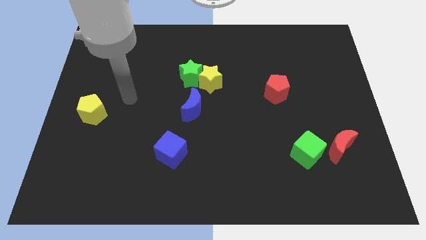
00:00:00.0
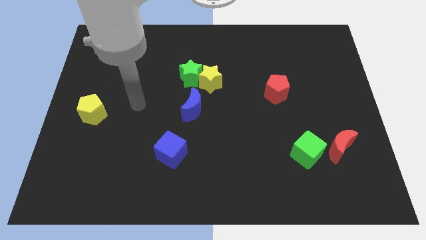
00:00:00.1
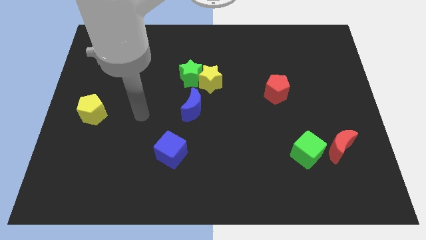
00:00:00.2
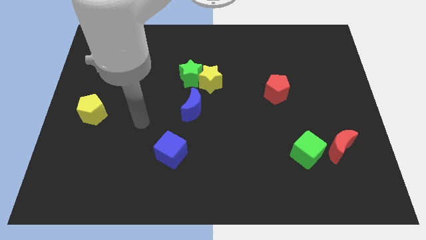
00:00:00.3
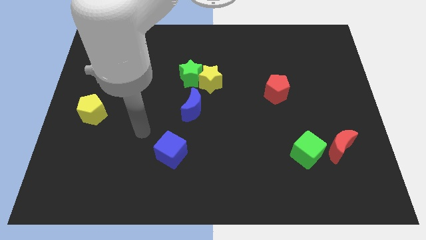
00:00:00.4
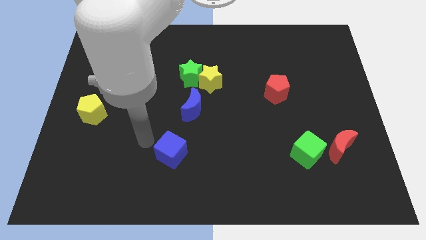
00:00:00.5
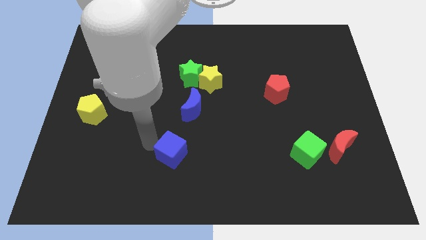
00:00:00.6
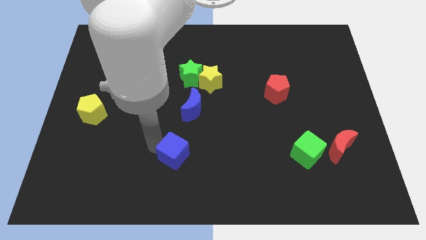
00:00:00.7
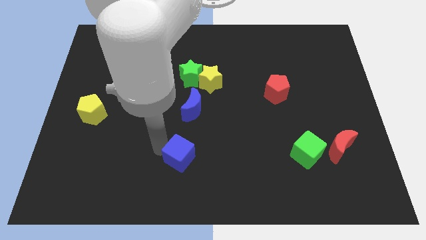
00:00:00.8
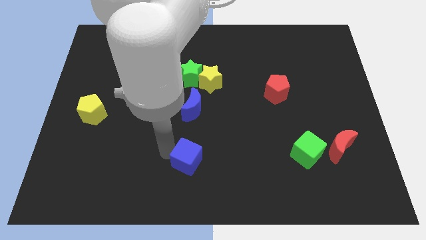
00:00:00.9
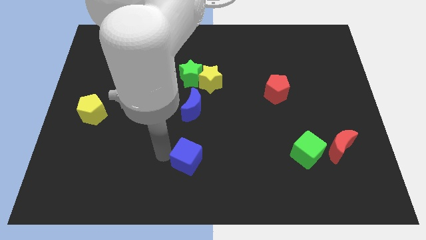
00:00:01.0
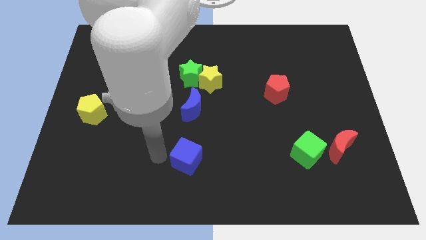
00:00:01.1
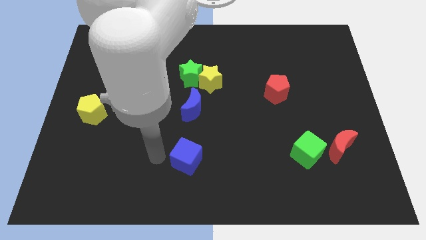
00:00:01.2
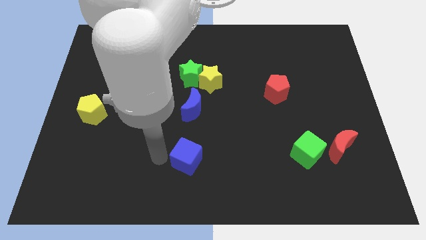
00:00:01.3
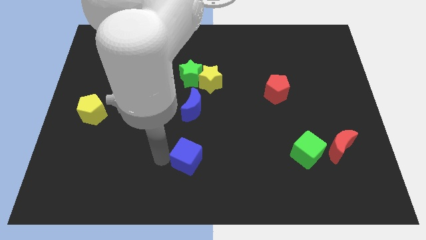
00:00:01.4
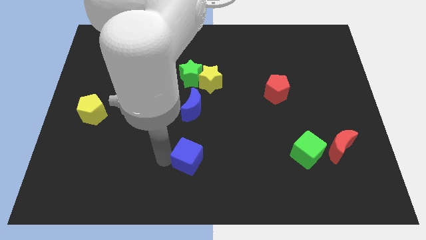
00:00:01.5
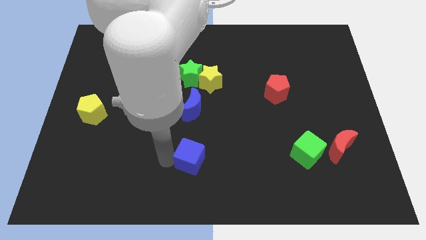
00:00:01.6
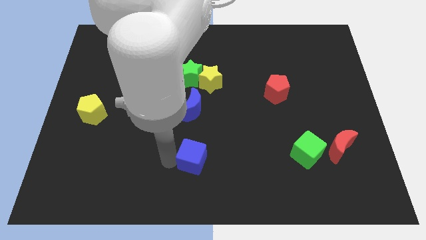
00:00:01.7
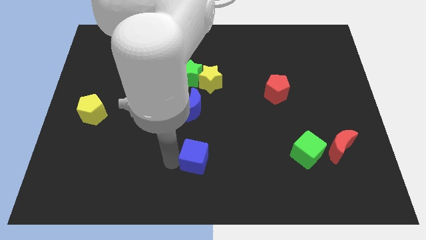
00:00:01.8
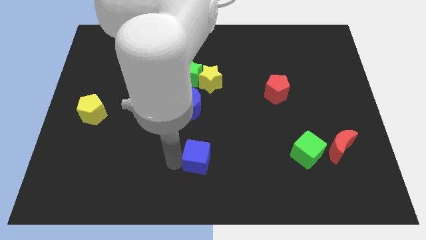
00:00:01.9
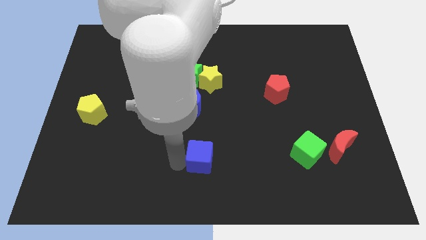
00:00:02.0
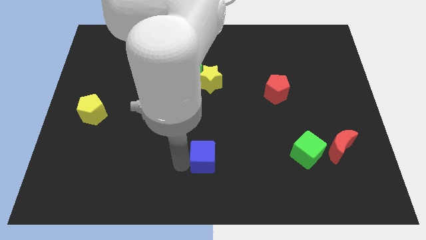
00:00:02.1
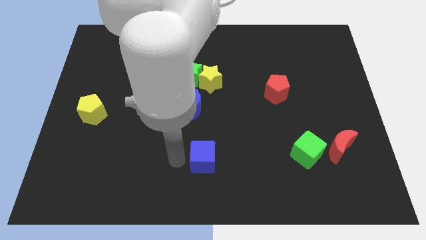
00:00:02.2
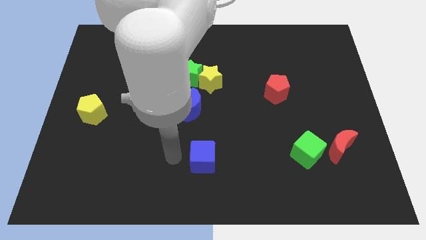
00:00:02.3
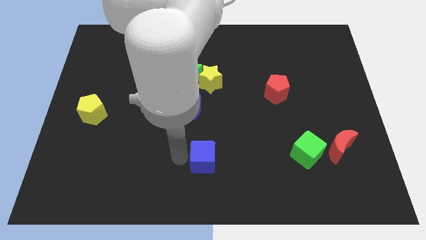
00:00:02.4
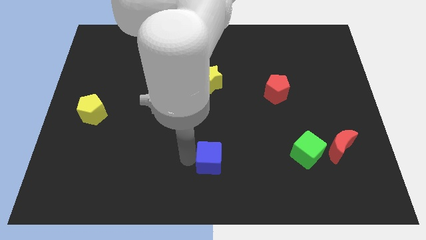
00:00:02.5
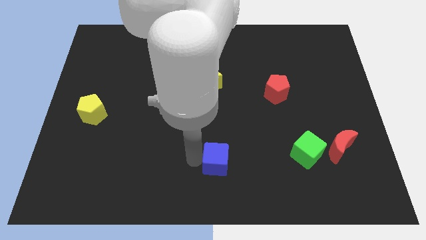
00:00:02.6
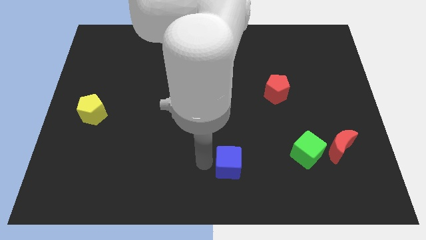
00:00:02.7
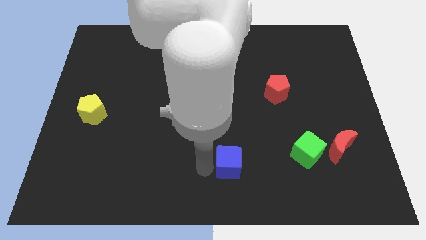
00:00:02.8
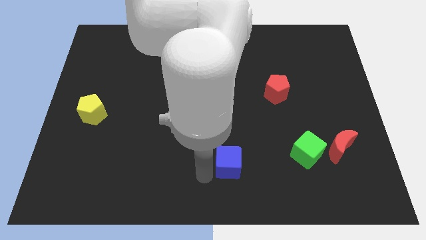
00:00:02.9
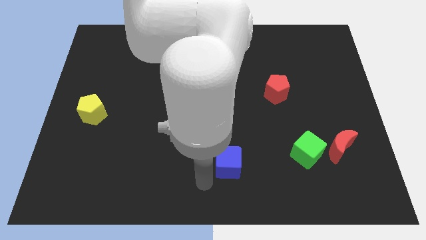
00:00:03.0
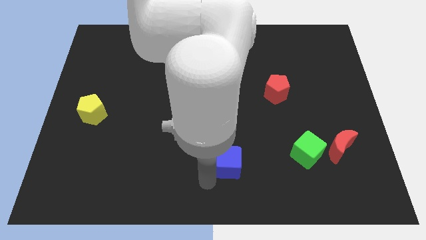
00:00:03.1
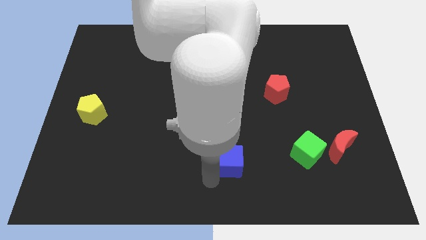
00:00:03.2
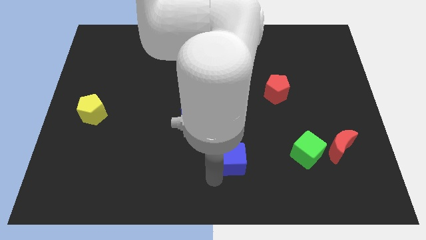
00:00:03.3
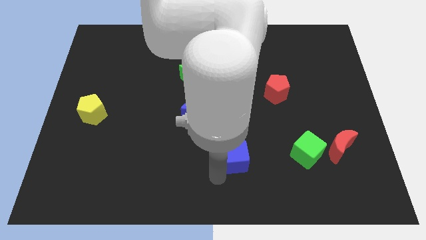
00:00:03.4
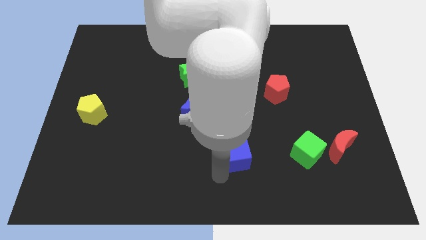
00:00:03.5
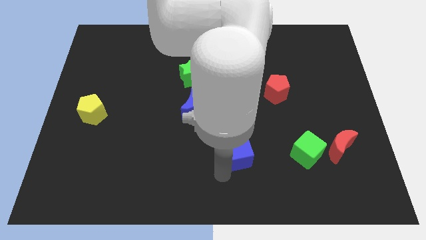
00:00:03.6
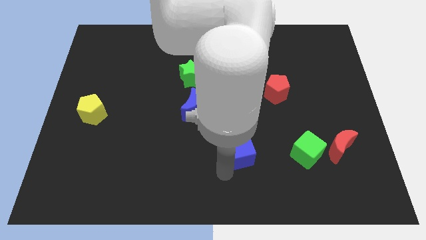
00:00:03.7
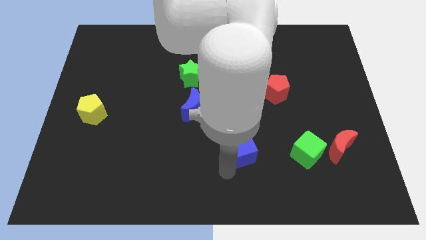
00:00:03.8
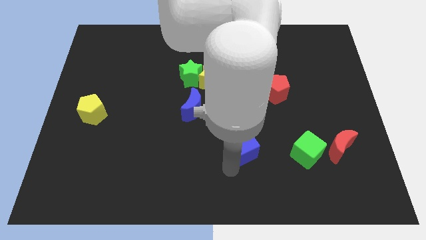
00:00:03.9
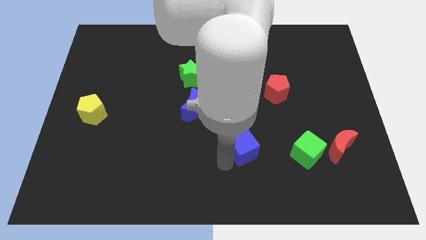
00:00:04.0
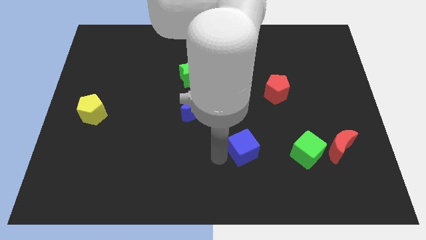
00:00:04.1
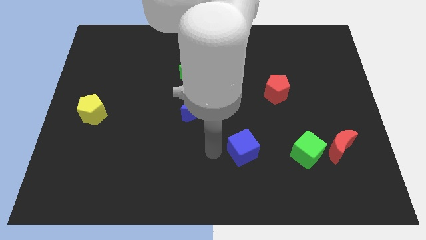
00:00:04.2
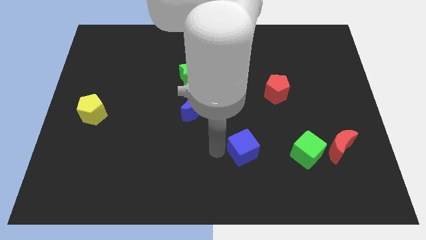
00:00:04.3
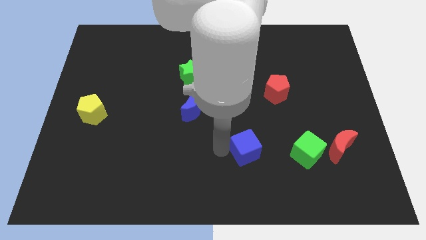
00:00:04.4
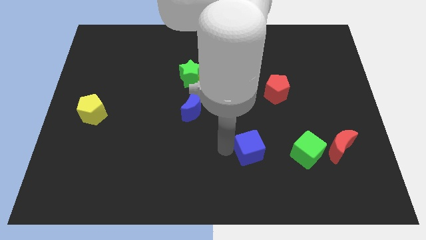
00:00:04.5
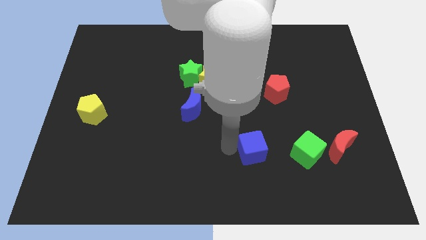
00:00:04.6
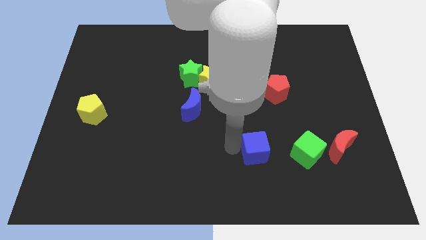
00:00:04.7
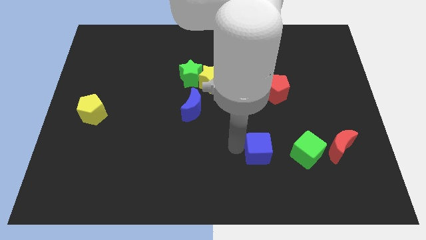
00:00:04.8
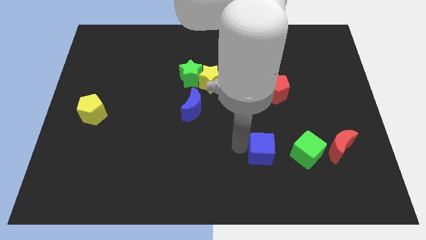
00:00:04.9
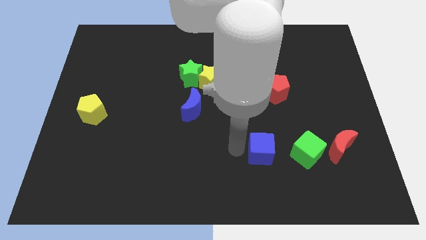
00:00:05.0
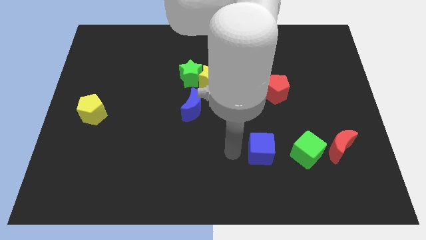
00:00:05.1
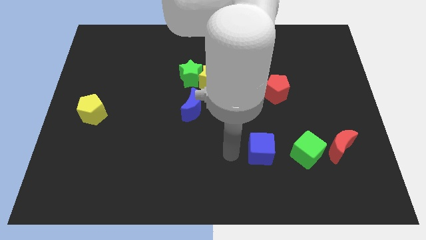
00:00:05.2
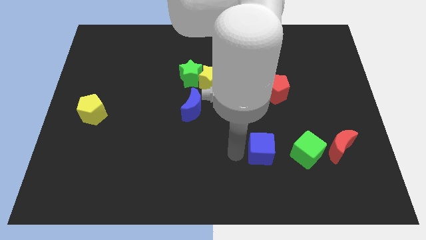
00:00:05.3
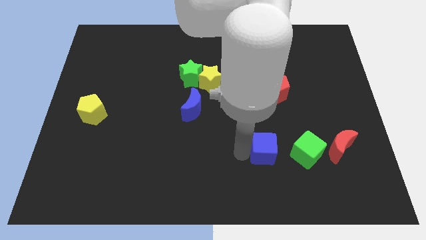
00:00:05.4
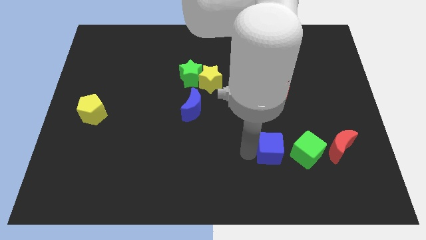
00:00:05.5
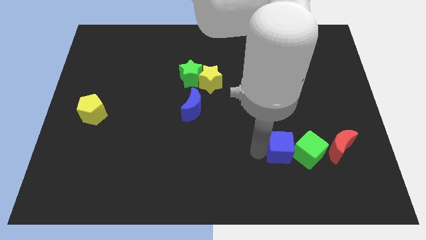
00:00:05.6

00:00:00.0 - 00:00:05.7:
put the blue cube next to the green cube

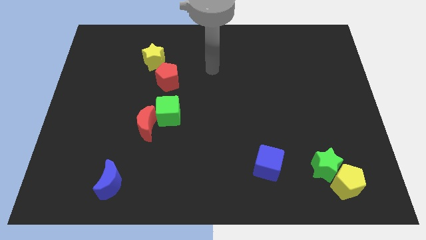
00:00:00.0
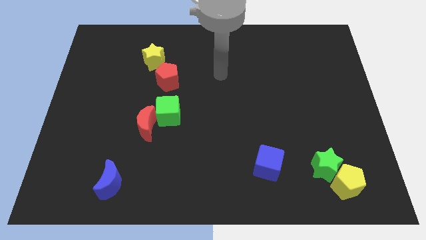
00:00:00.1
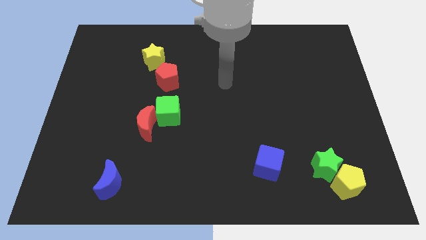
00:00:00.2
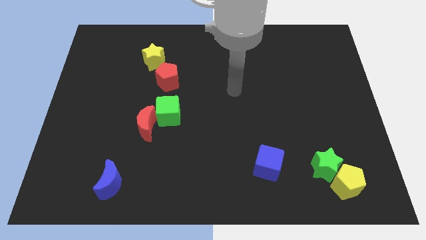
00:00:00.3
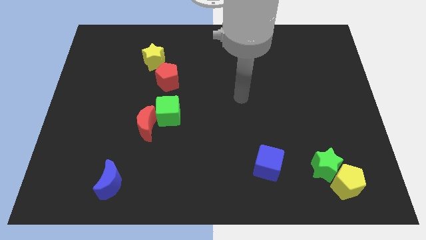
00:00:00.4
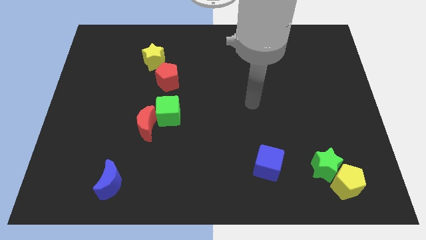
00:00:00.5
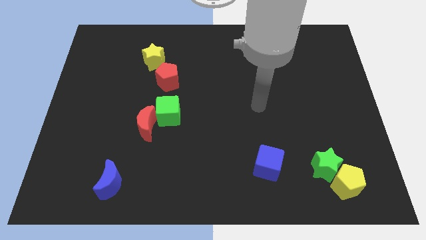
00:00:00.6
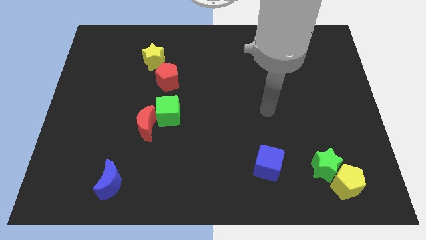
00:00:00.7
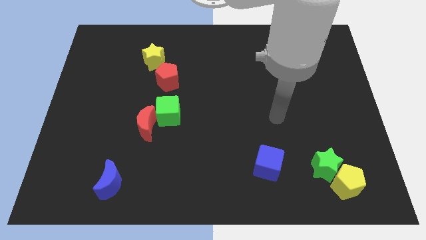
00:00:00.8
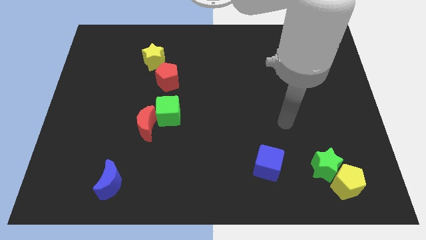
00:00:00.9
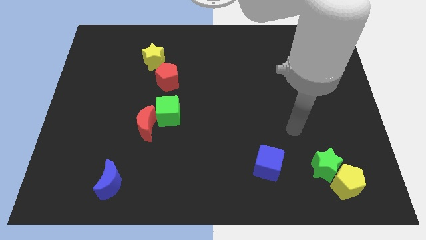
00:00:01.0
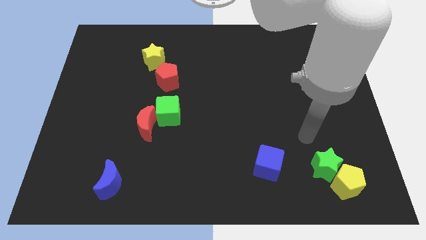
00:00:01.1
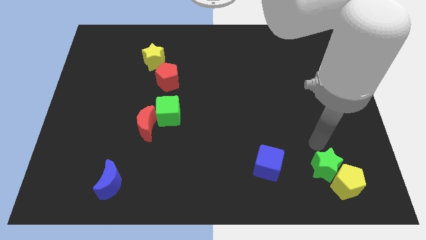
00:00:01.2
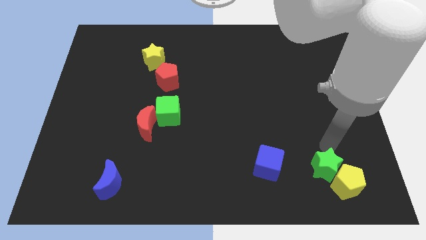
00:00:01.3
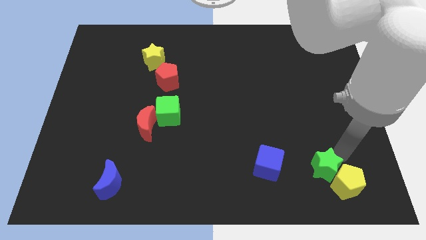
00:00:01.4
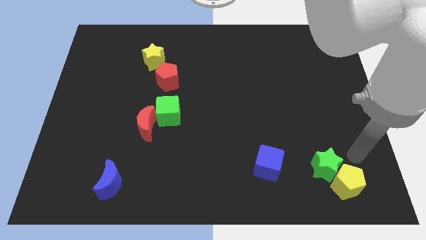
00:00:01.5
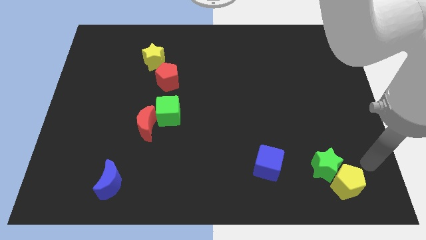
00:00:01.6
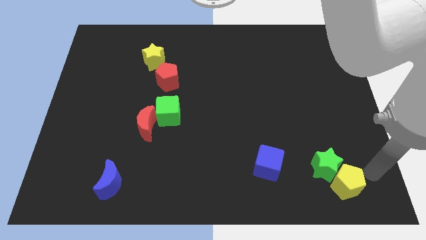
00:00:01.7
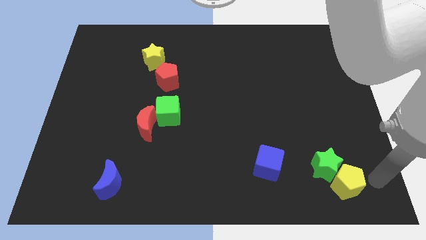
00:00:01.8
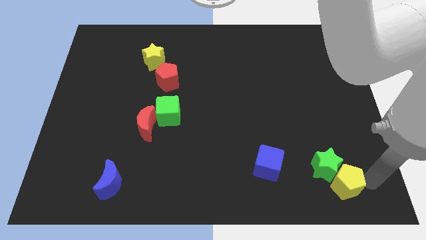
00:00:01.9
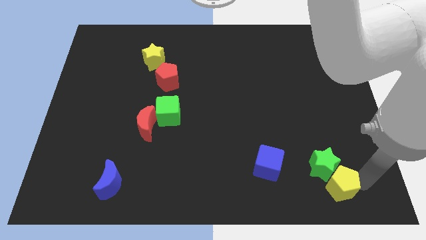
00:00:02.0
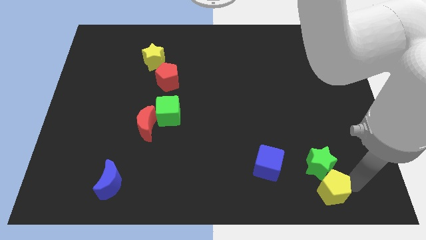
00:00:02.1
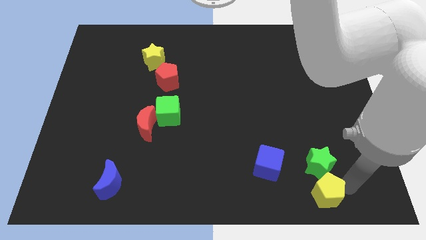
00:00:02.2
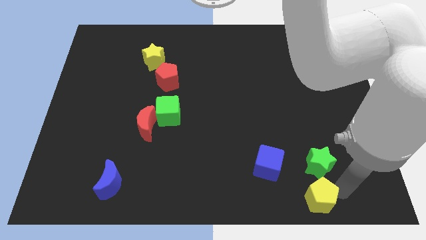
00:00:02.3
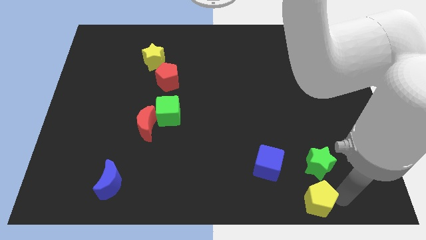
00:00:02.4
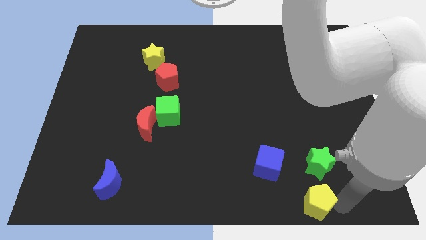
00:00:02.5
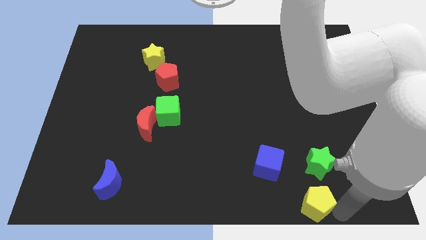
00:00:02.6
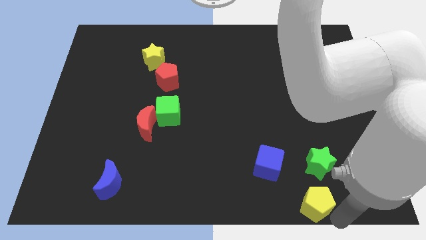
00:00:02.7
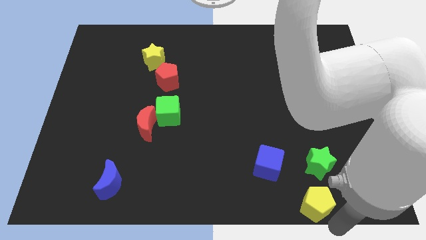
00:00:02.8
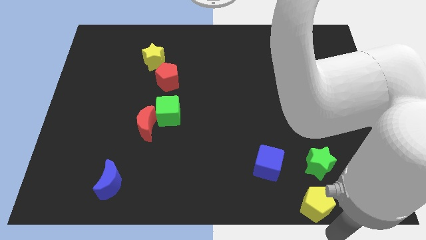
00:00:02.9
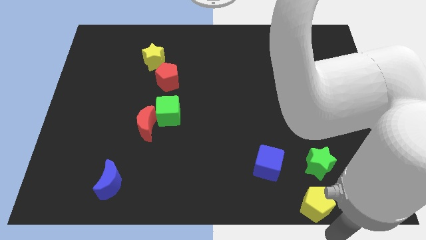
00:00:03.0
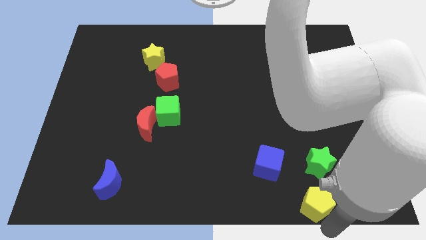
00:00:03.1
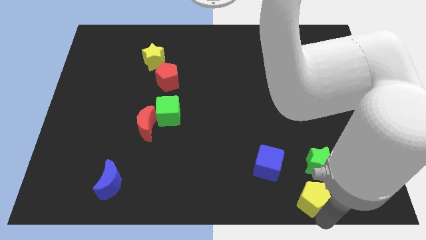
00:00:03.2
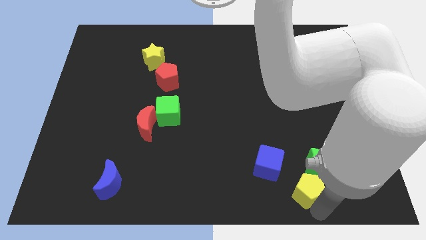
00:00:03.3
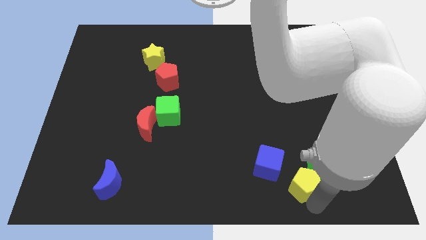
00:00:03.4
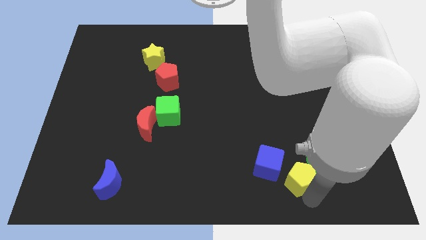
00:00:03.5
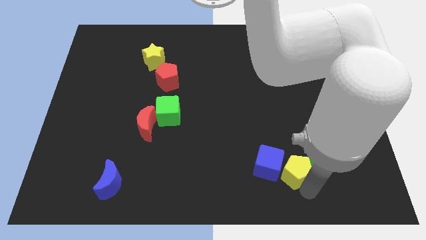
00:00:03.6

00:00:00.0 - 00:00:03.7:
slide the yellow pentagon next to the blue cube
